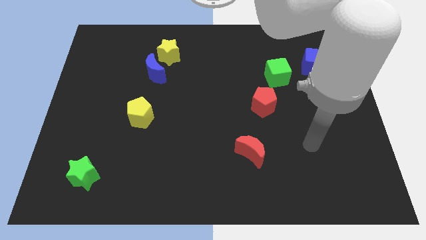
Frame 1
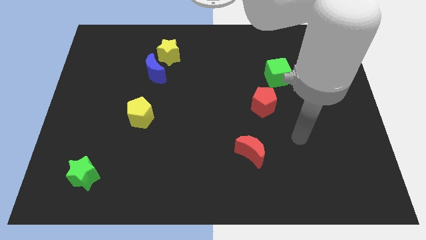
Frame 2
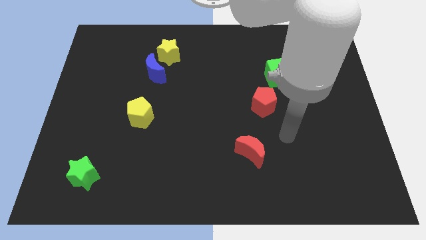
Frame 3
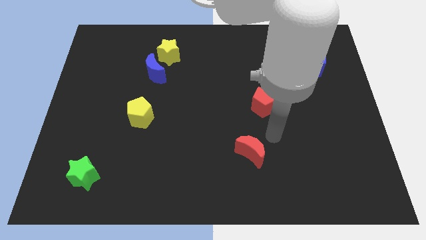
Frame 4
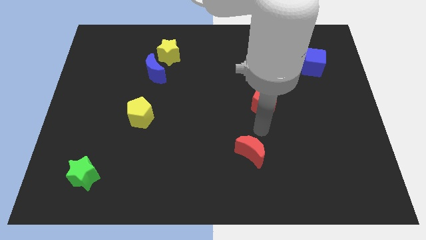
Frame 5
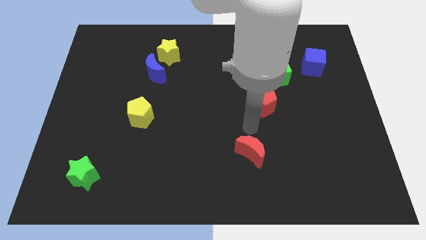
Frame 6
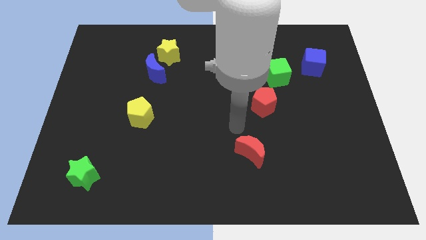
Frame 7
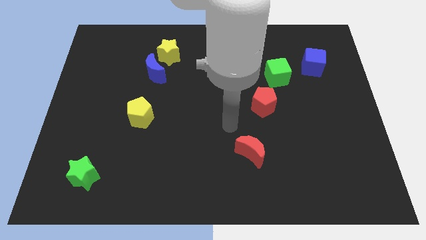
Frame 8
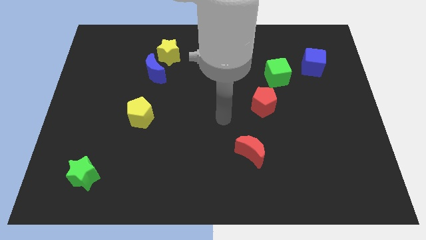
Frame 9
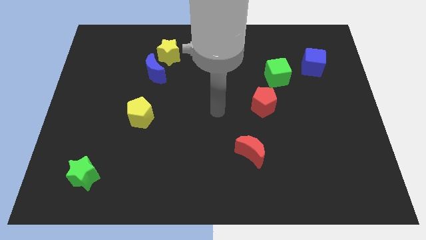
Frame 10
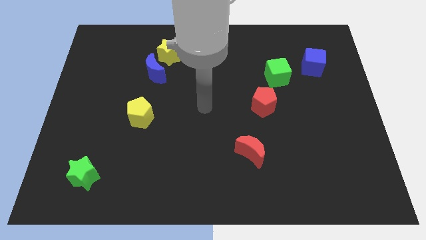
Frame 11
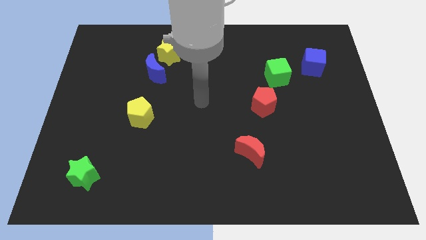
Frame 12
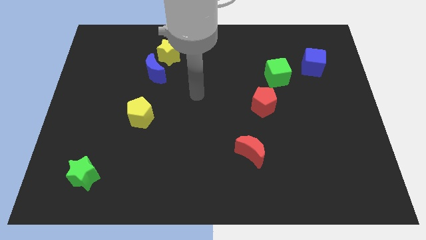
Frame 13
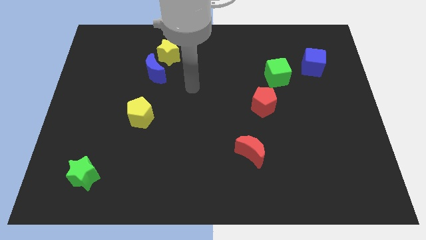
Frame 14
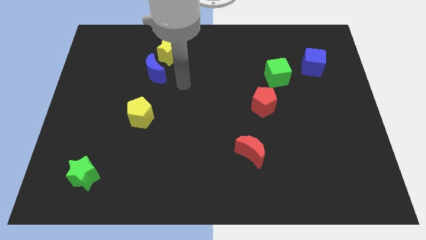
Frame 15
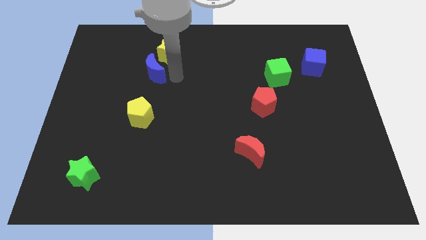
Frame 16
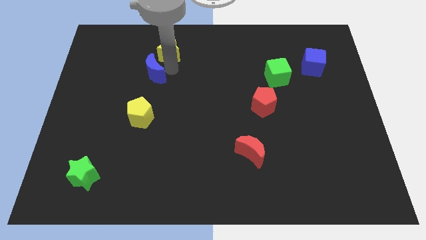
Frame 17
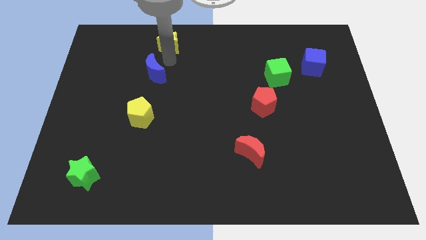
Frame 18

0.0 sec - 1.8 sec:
move the blue moon away from the yellow star

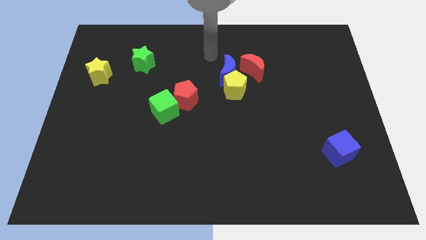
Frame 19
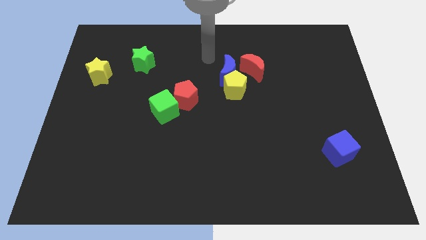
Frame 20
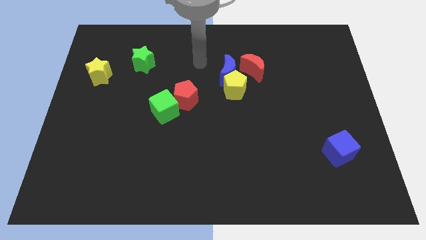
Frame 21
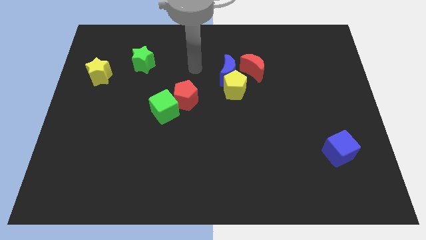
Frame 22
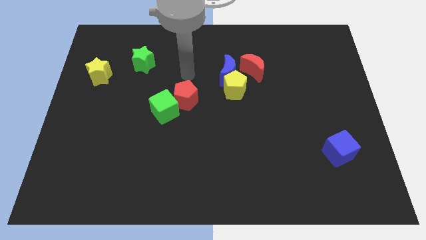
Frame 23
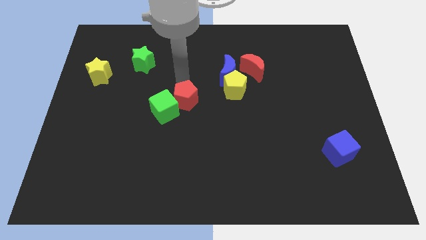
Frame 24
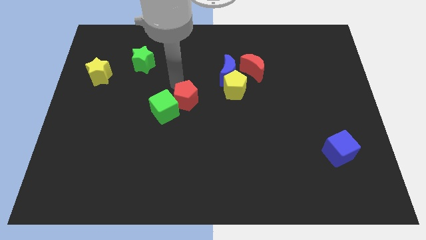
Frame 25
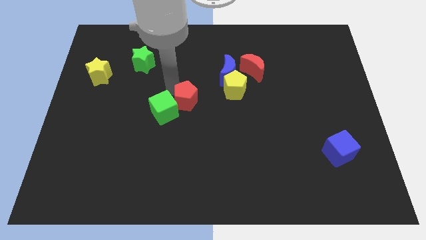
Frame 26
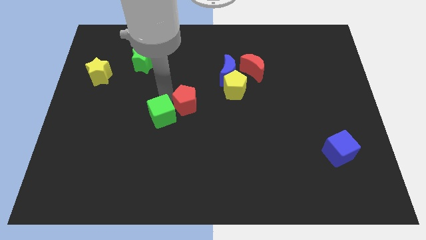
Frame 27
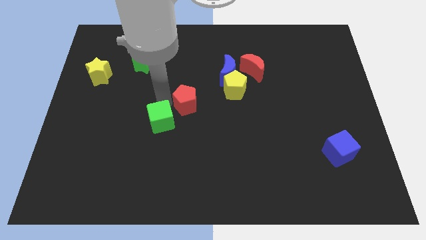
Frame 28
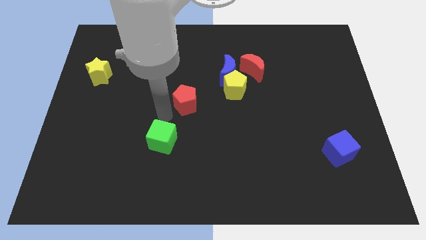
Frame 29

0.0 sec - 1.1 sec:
pull the red pentagon apart from the green cube

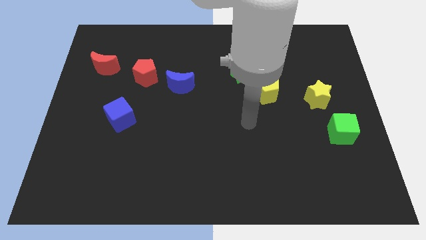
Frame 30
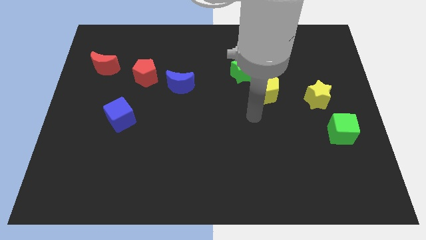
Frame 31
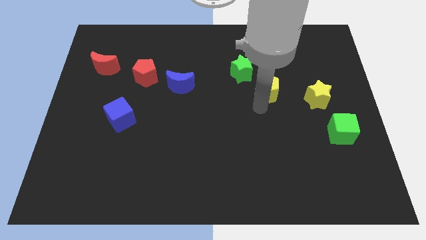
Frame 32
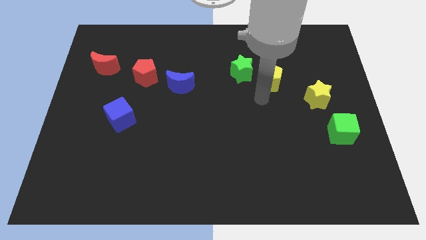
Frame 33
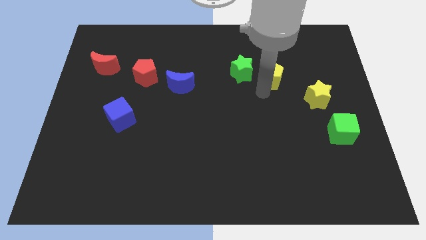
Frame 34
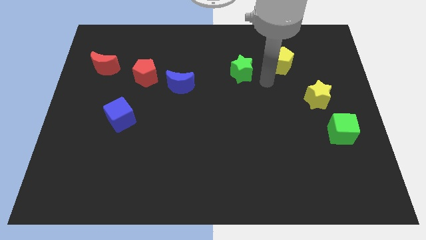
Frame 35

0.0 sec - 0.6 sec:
separate the green star from the yellow pentagon

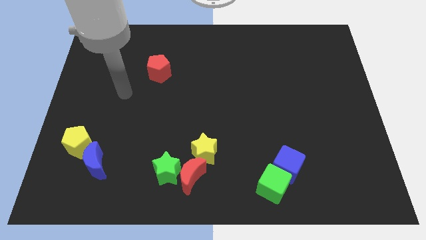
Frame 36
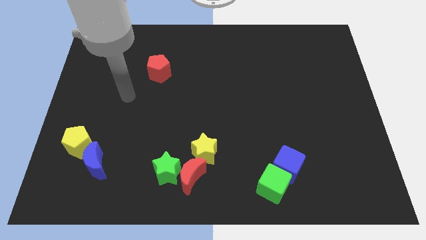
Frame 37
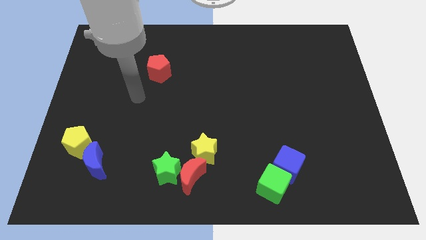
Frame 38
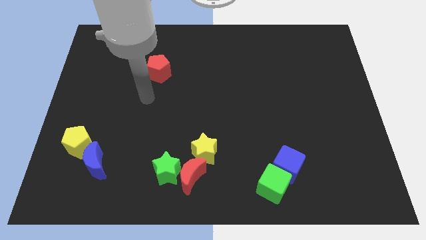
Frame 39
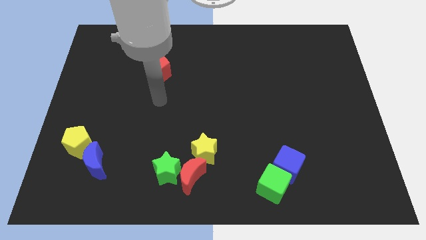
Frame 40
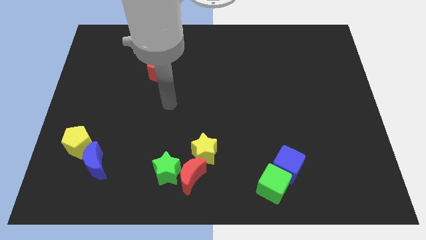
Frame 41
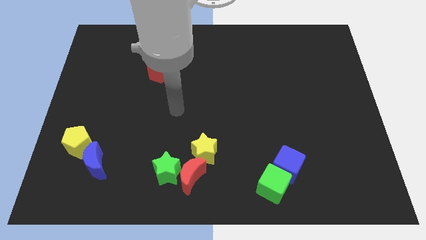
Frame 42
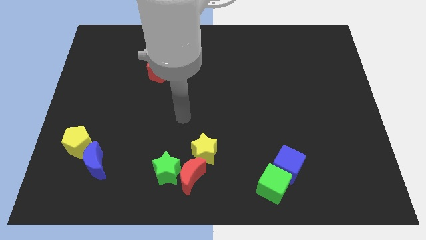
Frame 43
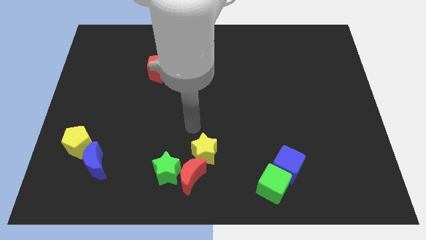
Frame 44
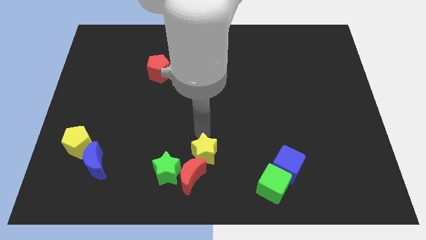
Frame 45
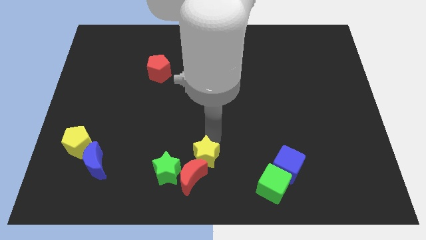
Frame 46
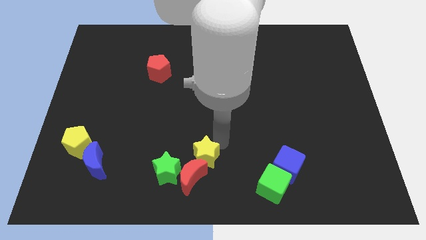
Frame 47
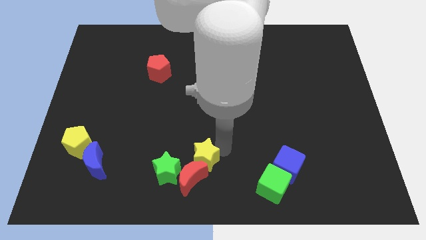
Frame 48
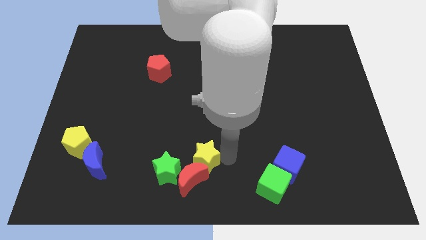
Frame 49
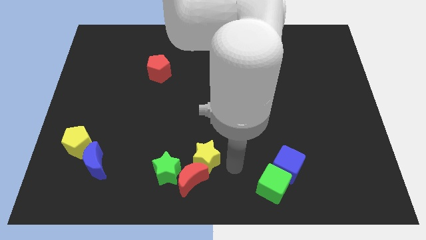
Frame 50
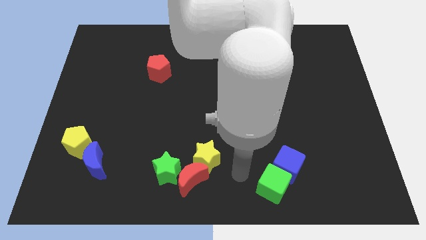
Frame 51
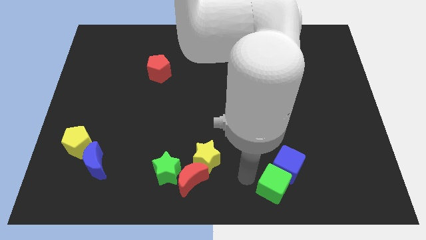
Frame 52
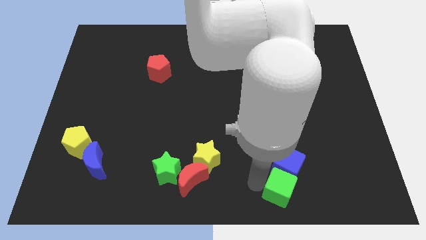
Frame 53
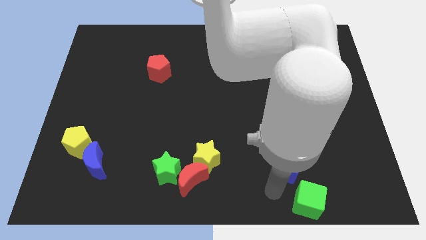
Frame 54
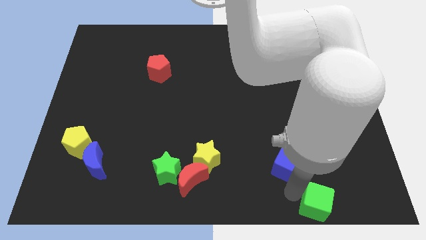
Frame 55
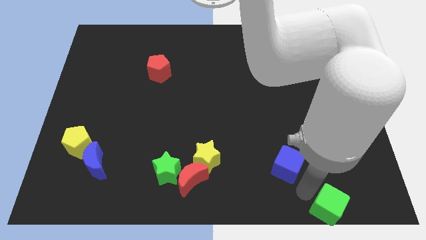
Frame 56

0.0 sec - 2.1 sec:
move the blue cube away from the green cube

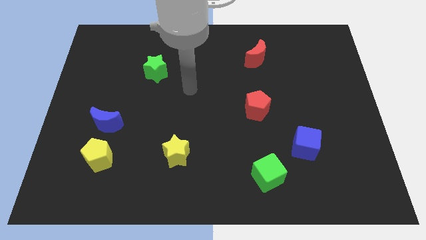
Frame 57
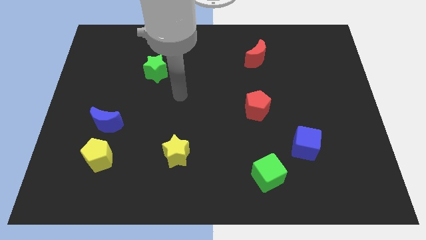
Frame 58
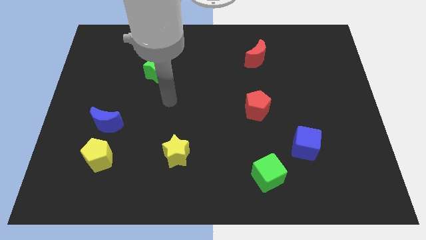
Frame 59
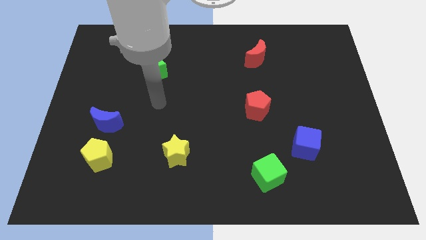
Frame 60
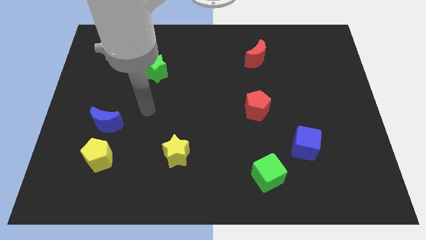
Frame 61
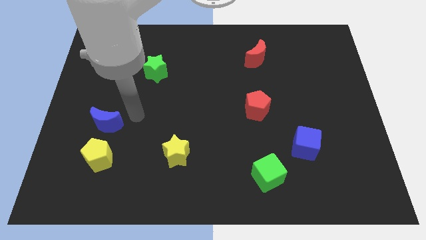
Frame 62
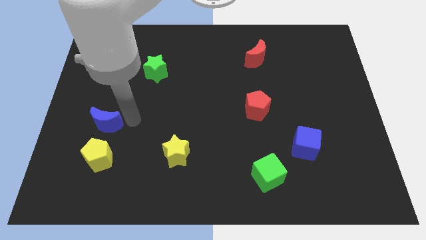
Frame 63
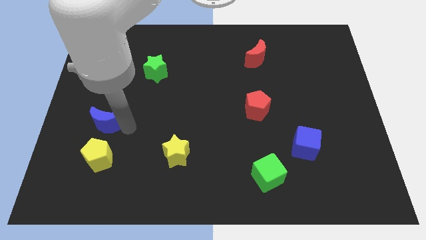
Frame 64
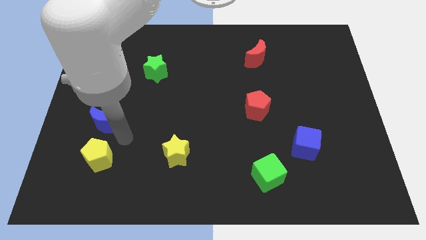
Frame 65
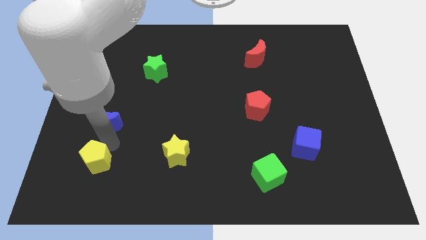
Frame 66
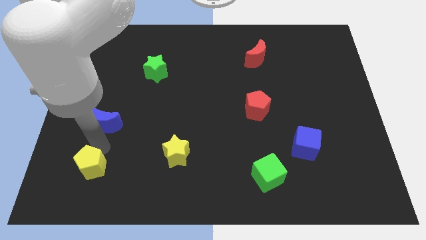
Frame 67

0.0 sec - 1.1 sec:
move the blue moon away from the yellow pentagon

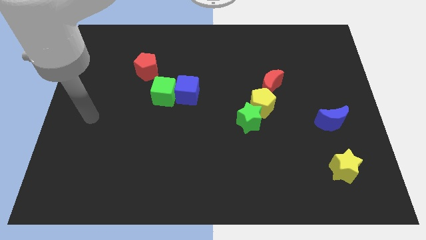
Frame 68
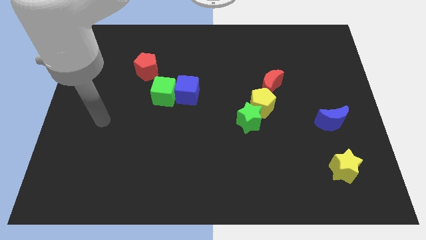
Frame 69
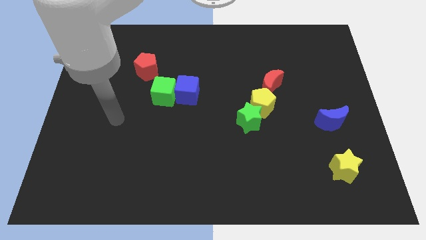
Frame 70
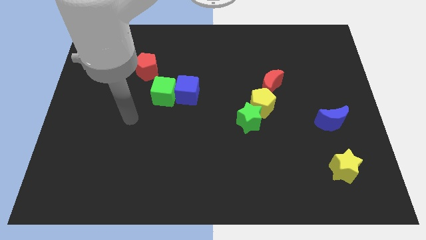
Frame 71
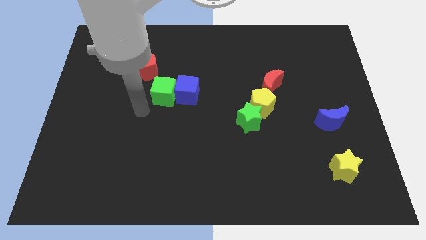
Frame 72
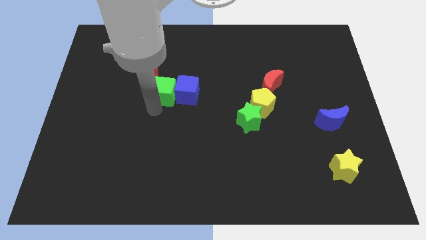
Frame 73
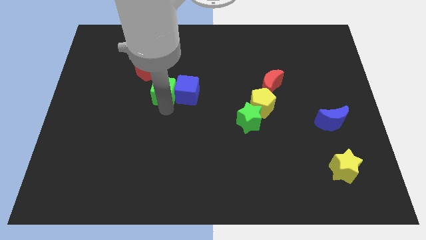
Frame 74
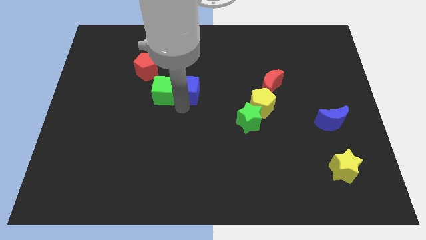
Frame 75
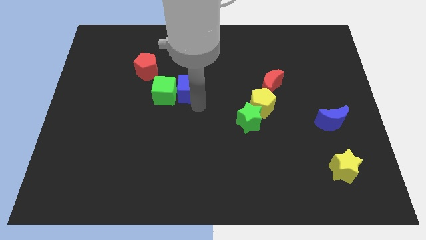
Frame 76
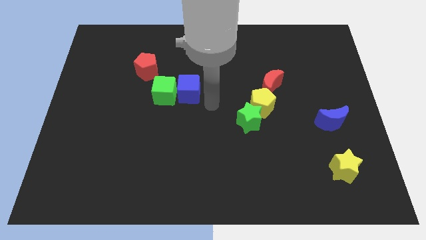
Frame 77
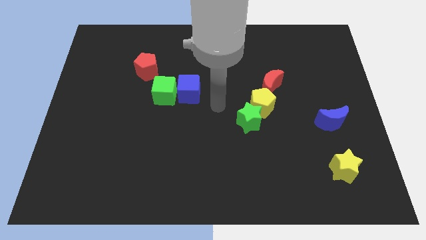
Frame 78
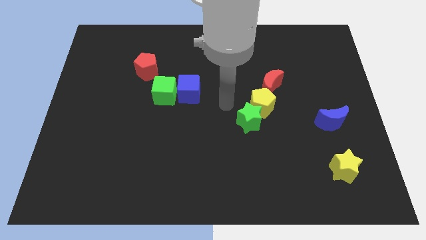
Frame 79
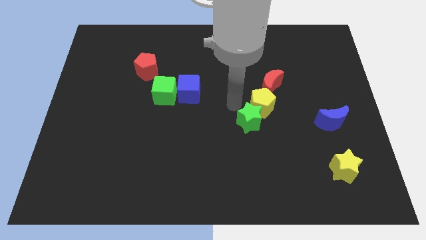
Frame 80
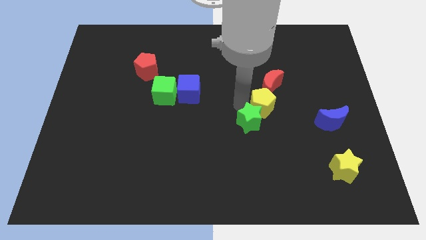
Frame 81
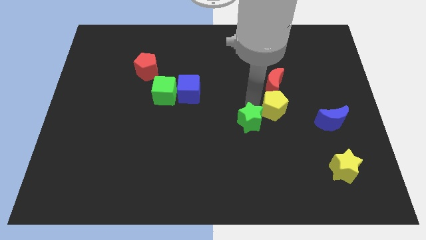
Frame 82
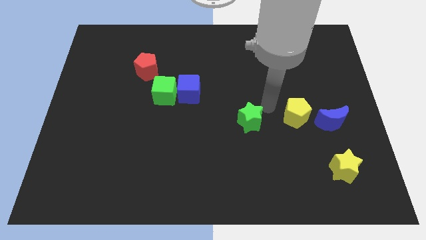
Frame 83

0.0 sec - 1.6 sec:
move the green star away from the yellow pentagon

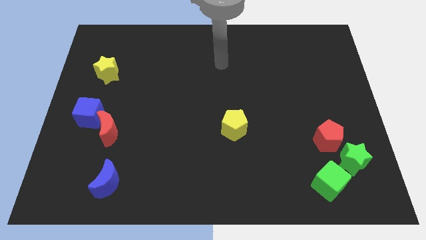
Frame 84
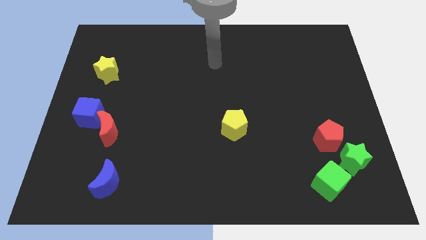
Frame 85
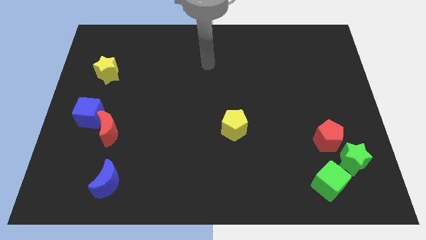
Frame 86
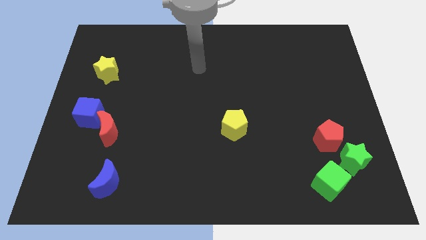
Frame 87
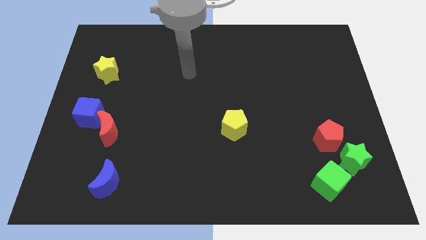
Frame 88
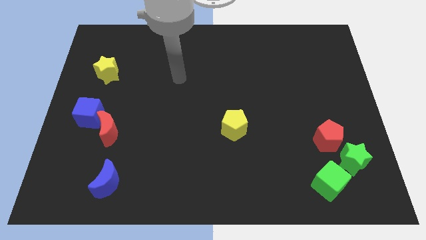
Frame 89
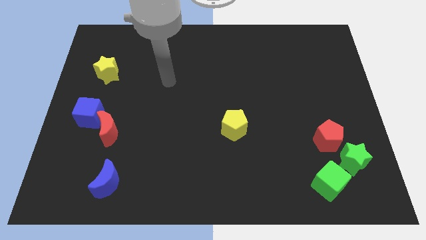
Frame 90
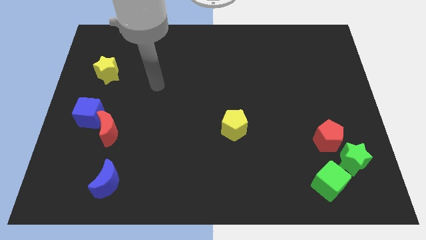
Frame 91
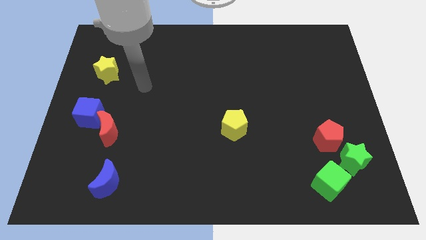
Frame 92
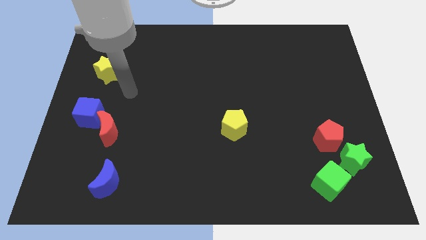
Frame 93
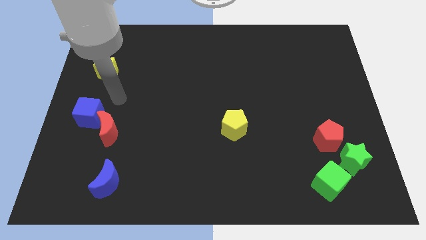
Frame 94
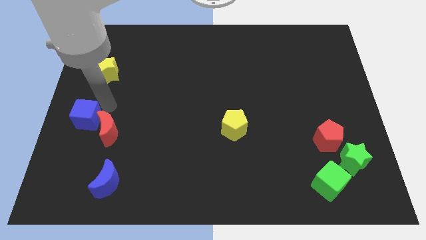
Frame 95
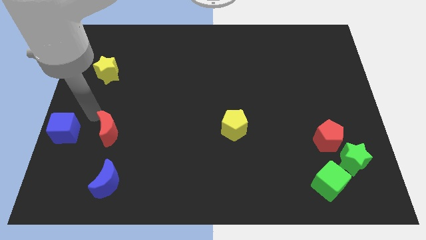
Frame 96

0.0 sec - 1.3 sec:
pull the red moon apart from the blue cube
